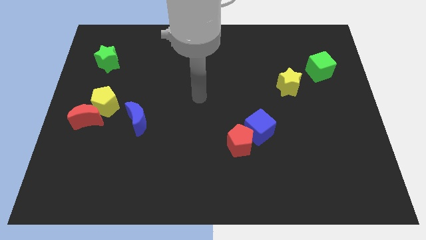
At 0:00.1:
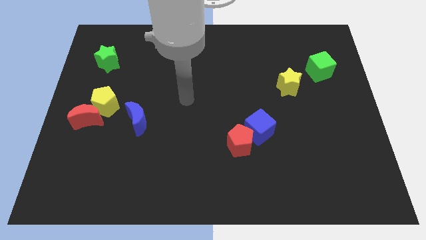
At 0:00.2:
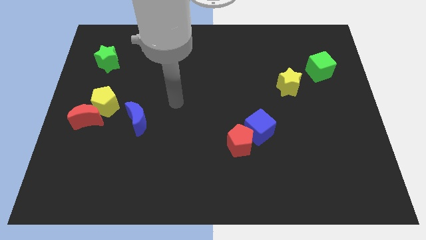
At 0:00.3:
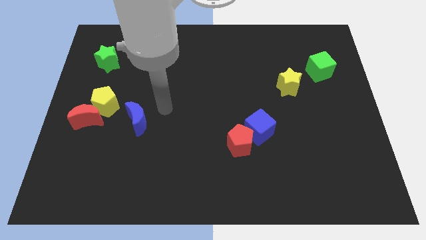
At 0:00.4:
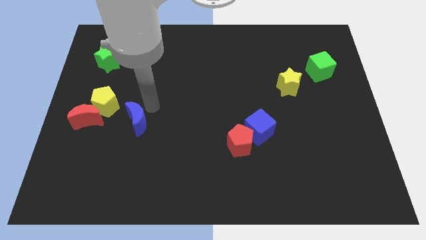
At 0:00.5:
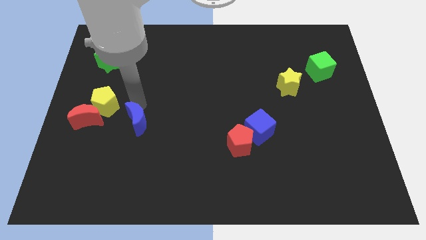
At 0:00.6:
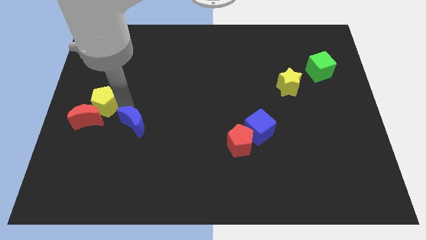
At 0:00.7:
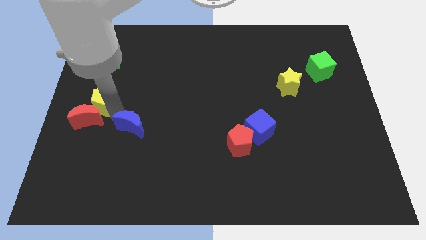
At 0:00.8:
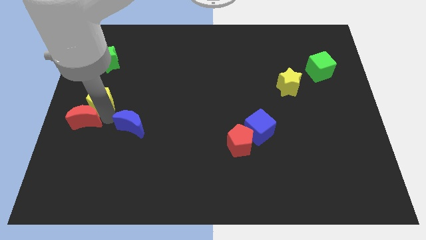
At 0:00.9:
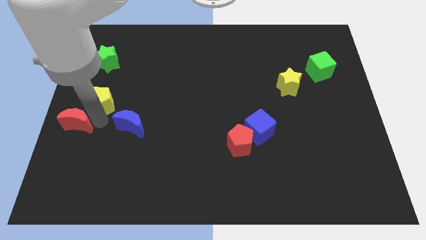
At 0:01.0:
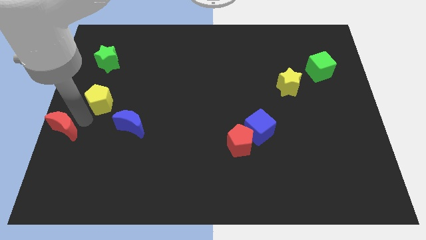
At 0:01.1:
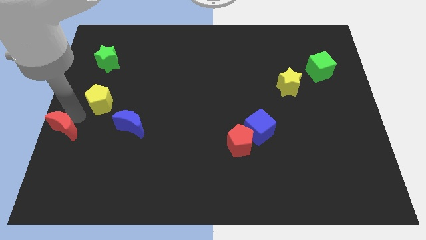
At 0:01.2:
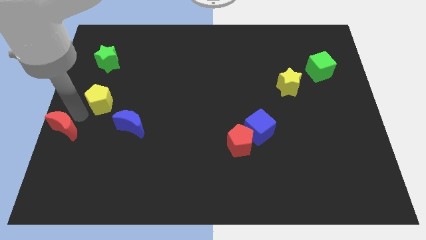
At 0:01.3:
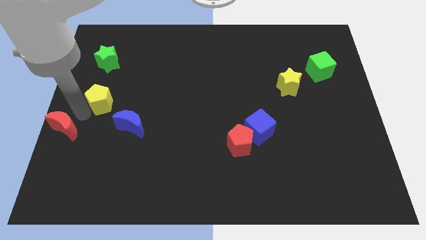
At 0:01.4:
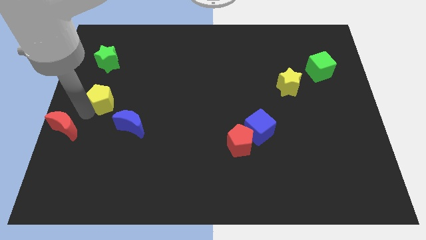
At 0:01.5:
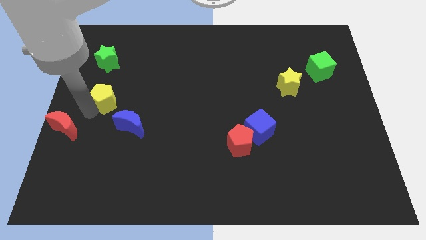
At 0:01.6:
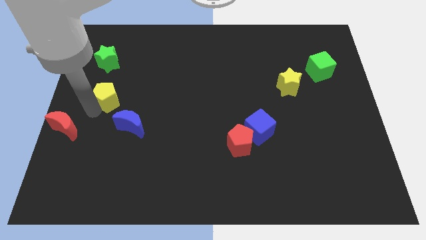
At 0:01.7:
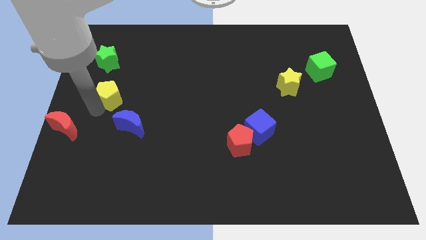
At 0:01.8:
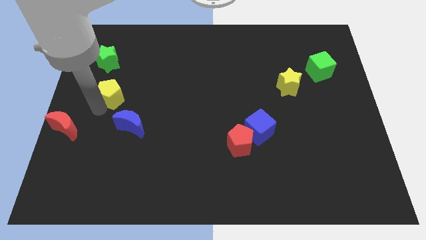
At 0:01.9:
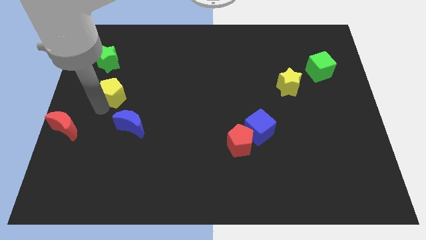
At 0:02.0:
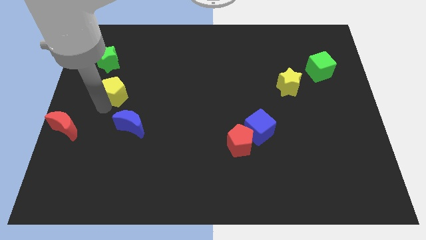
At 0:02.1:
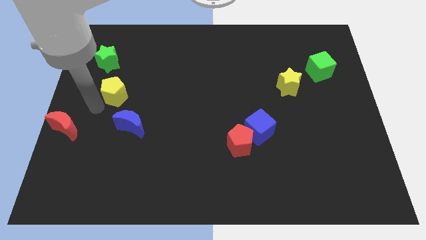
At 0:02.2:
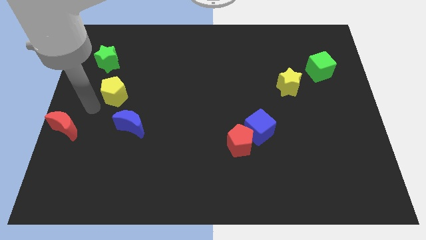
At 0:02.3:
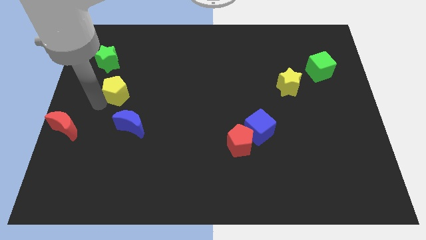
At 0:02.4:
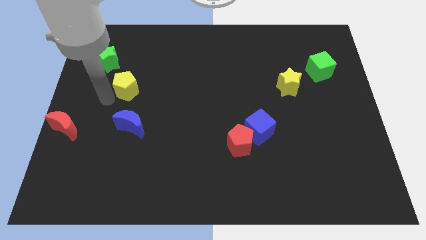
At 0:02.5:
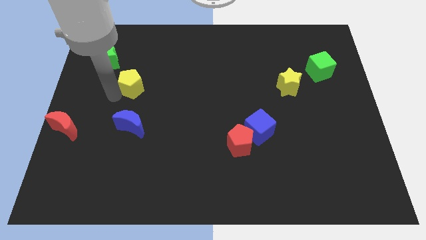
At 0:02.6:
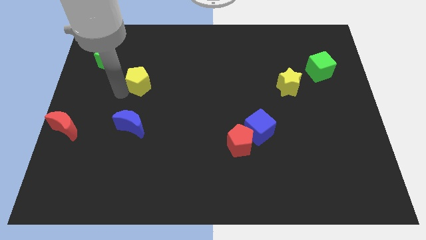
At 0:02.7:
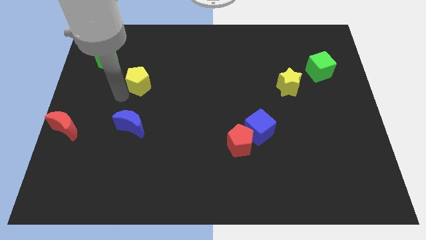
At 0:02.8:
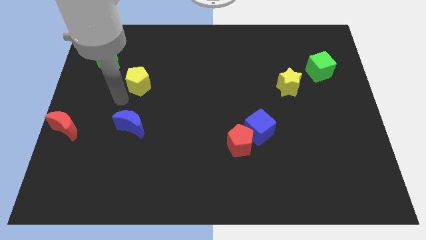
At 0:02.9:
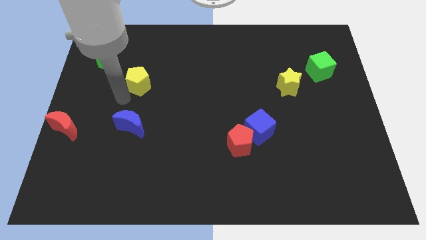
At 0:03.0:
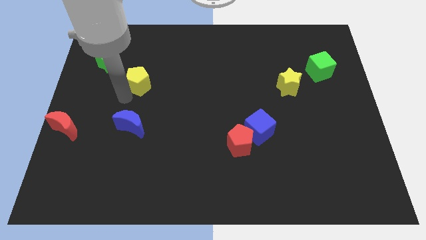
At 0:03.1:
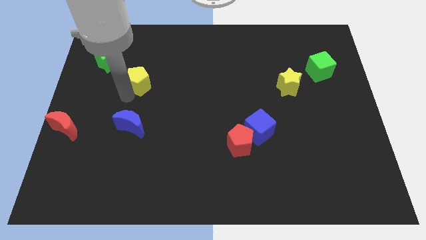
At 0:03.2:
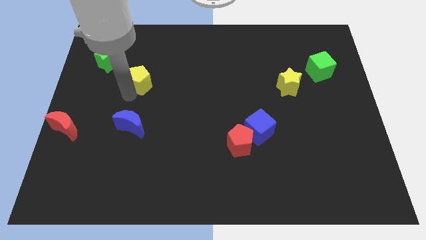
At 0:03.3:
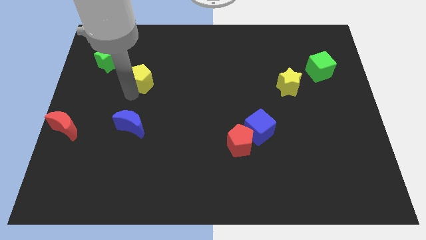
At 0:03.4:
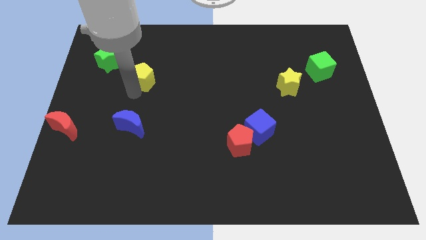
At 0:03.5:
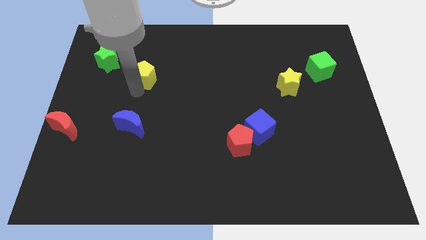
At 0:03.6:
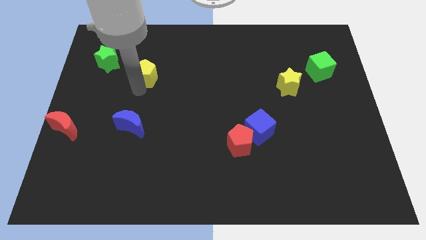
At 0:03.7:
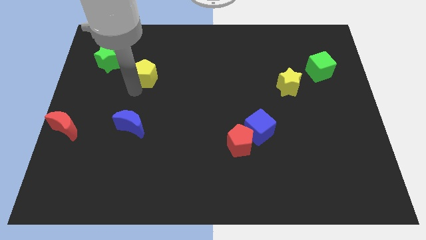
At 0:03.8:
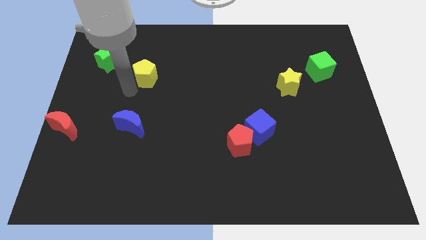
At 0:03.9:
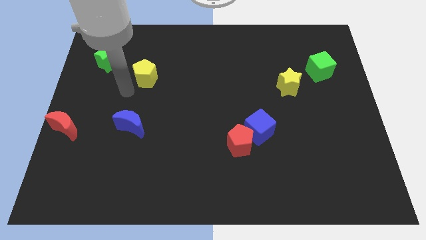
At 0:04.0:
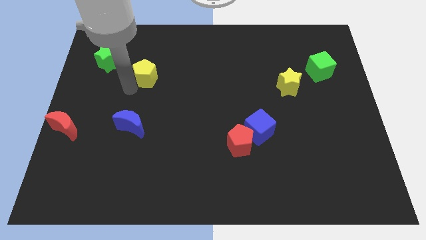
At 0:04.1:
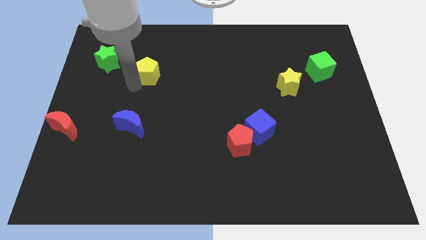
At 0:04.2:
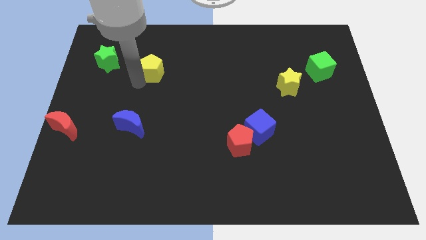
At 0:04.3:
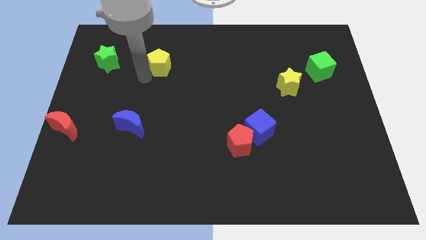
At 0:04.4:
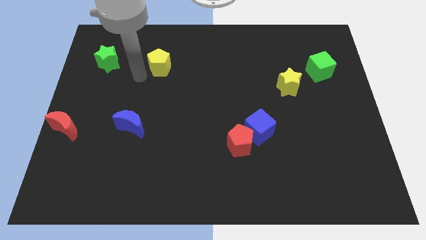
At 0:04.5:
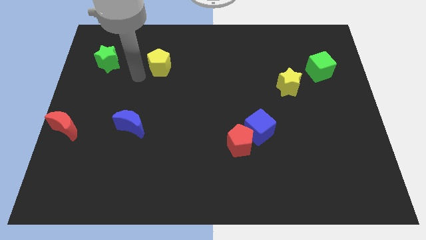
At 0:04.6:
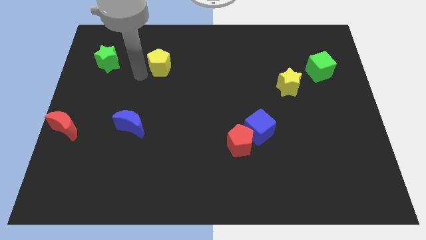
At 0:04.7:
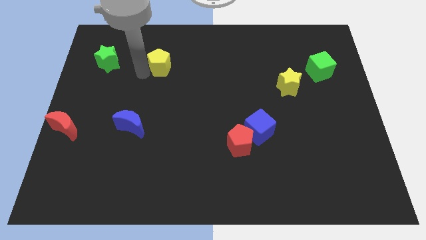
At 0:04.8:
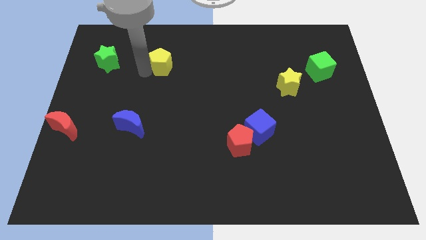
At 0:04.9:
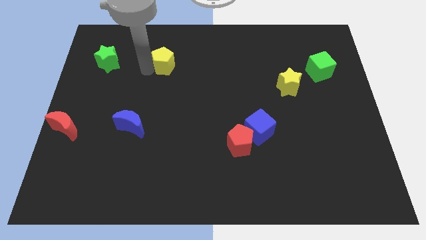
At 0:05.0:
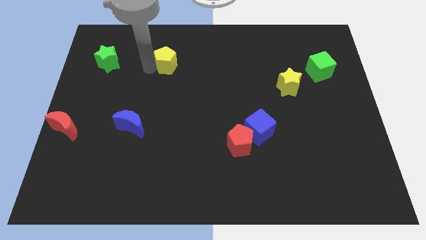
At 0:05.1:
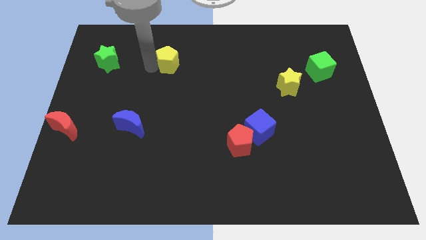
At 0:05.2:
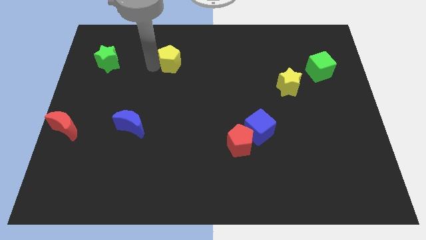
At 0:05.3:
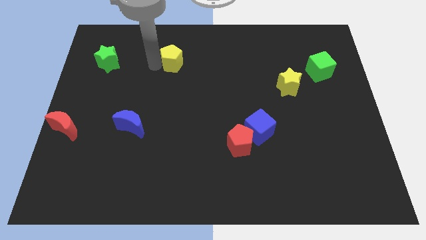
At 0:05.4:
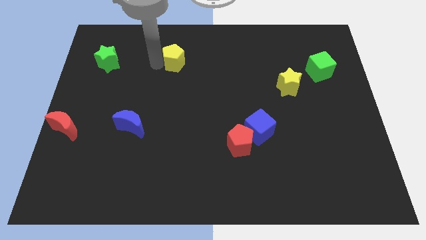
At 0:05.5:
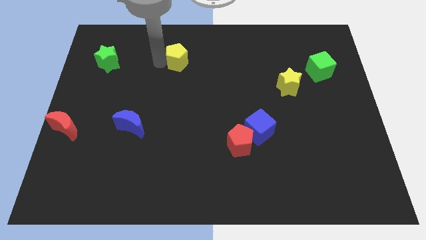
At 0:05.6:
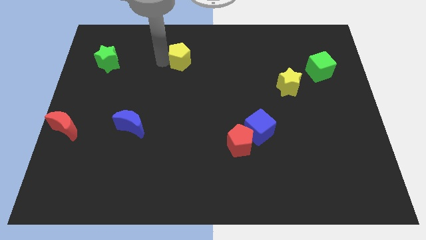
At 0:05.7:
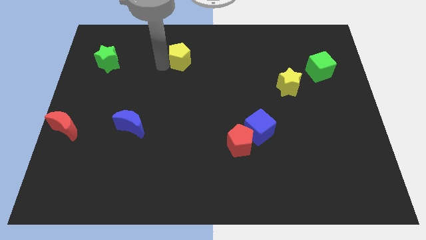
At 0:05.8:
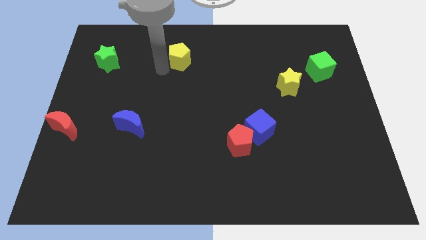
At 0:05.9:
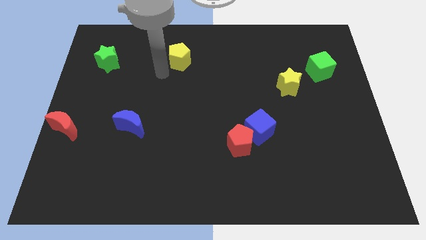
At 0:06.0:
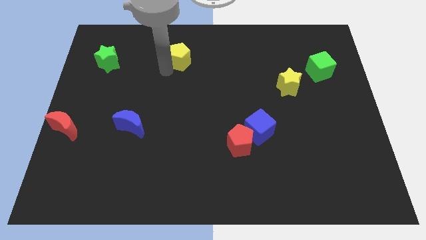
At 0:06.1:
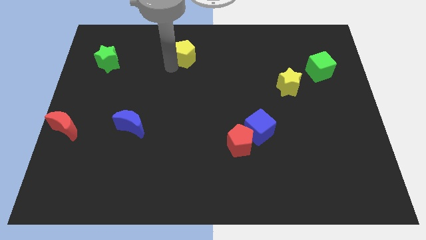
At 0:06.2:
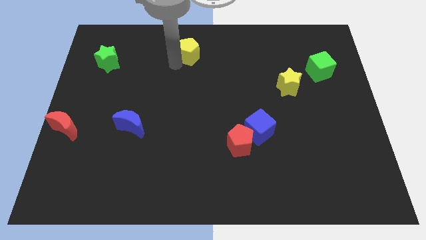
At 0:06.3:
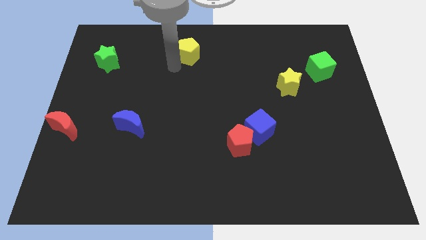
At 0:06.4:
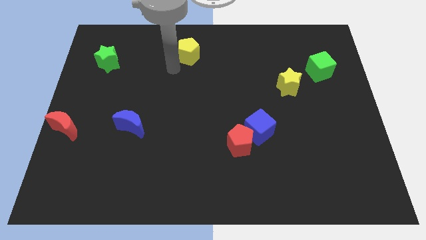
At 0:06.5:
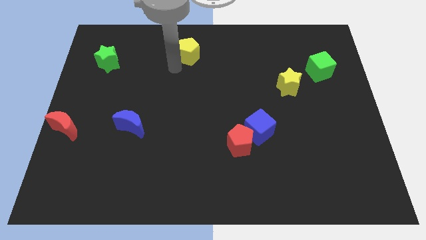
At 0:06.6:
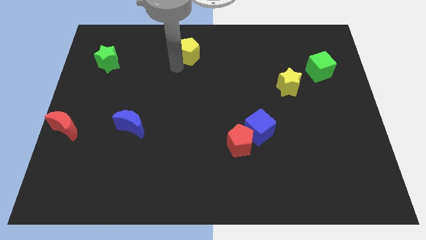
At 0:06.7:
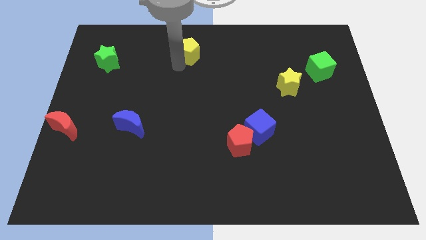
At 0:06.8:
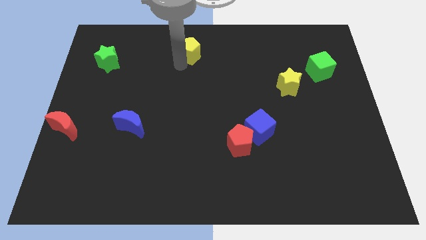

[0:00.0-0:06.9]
move the yellow pentagon to the towards your base
